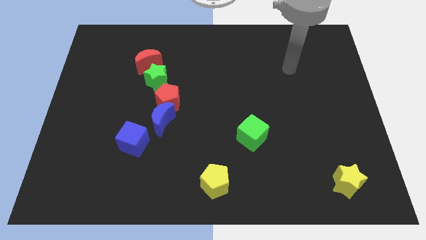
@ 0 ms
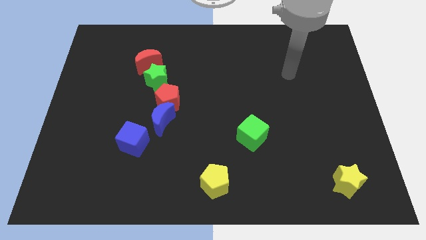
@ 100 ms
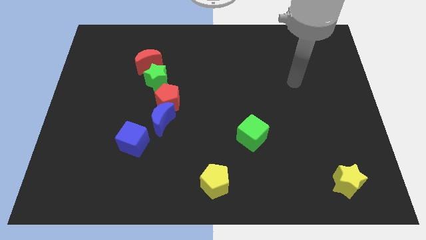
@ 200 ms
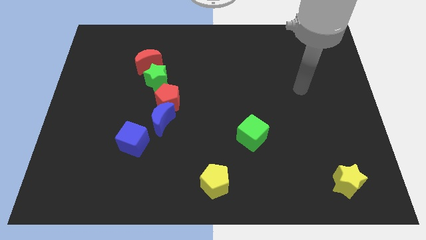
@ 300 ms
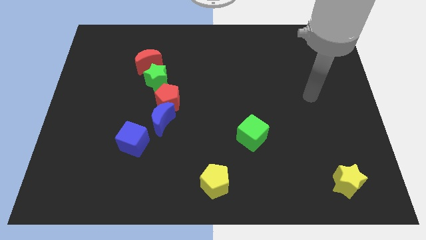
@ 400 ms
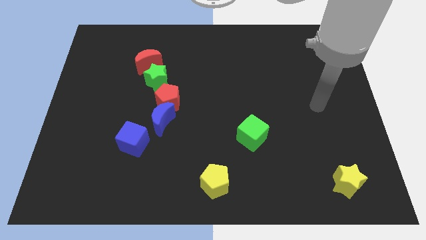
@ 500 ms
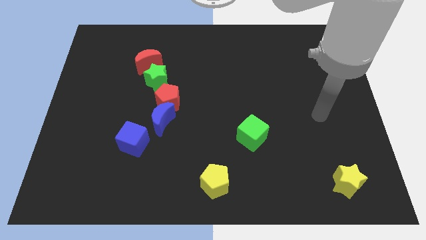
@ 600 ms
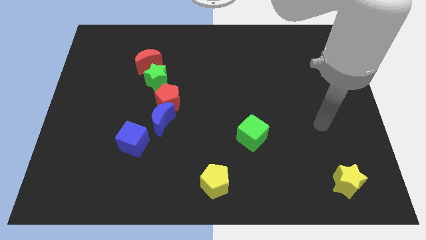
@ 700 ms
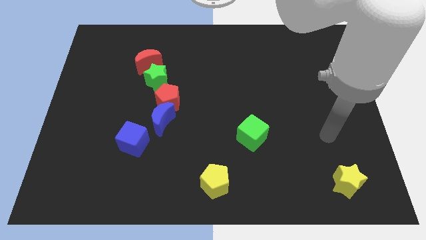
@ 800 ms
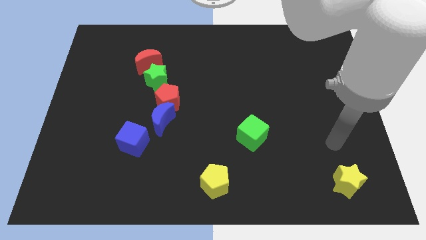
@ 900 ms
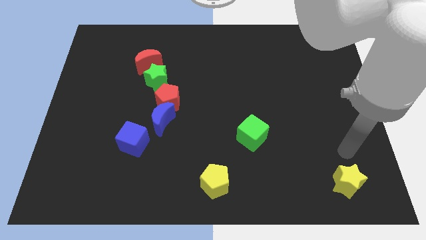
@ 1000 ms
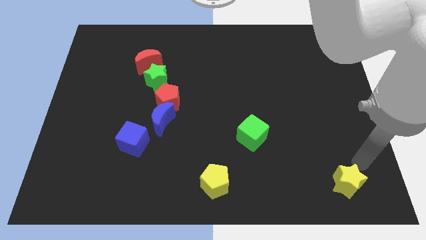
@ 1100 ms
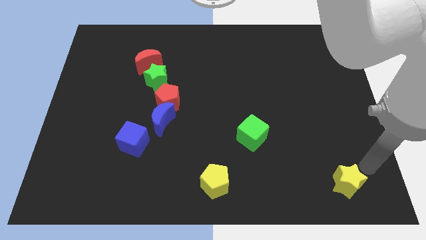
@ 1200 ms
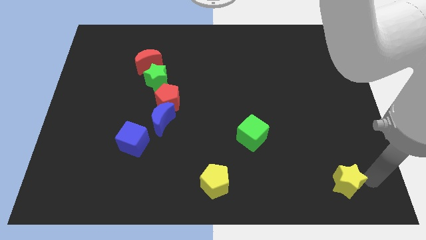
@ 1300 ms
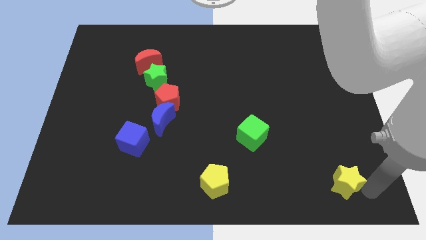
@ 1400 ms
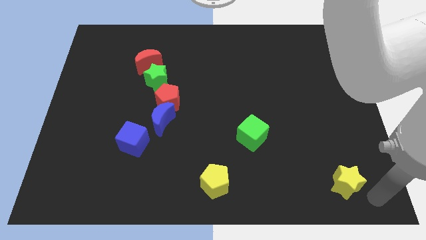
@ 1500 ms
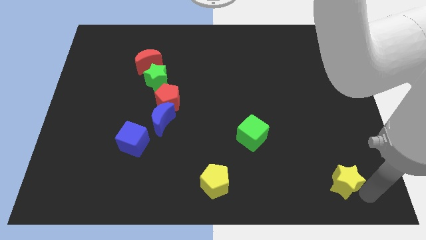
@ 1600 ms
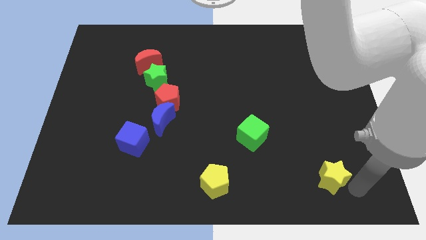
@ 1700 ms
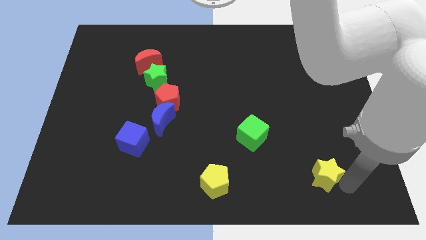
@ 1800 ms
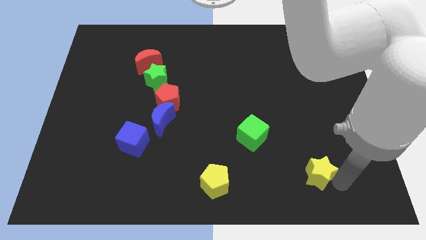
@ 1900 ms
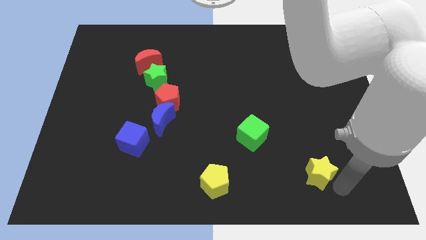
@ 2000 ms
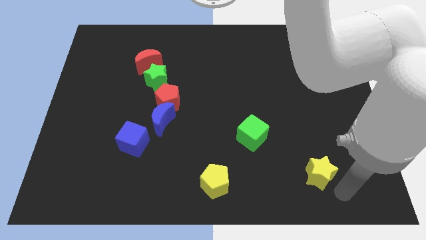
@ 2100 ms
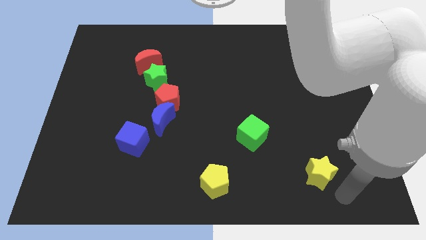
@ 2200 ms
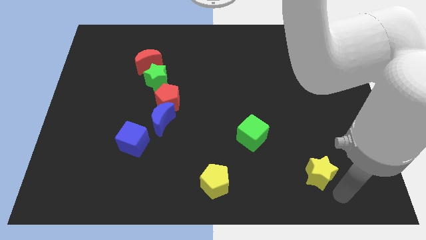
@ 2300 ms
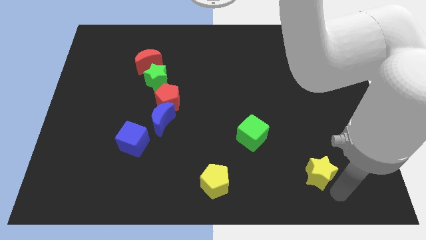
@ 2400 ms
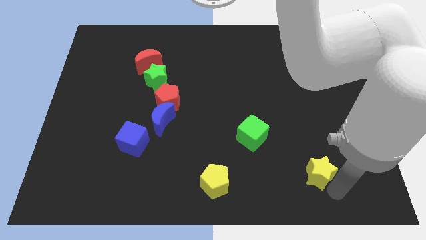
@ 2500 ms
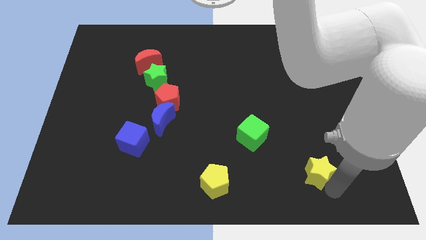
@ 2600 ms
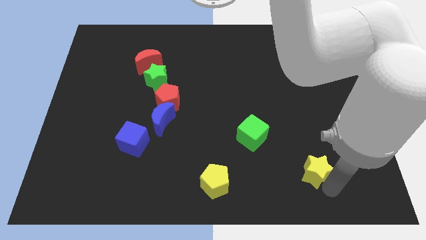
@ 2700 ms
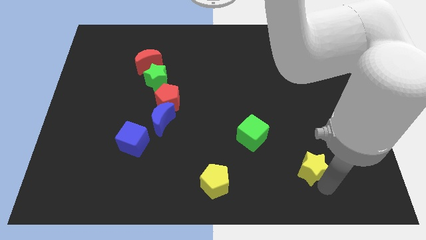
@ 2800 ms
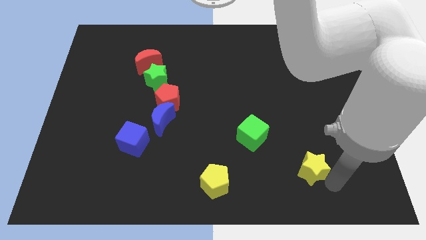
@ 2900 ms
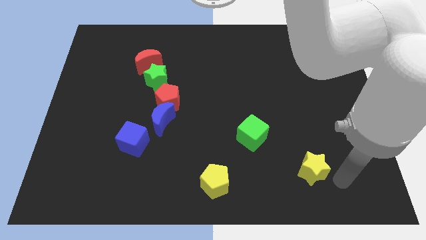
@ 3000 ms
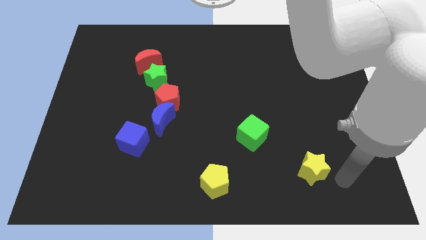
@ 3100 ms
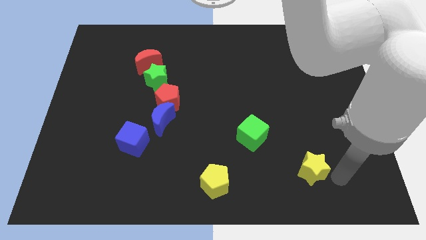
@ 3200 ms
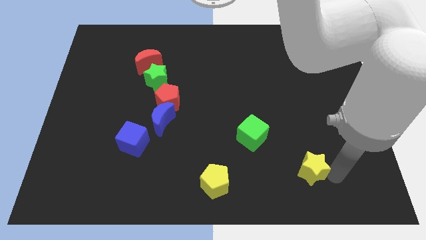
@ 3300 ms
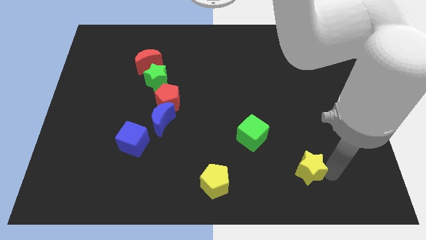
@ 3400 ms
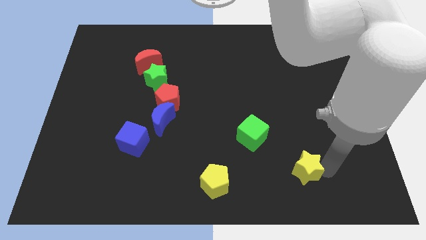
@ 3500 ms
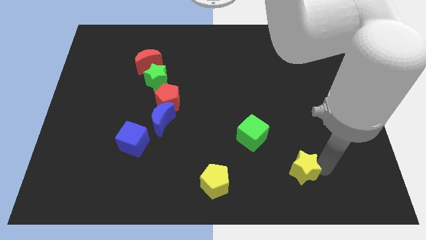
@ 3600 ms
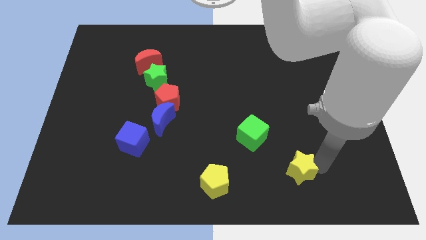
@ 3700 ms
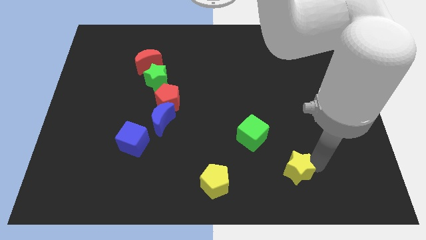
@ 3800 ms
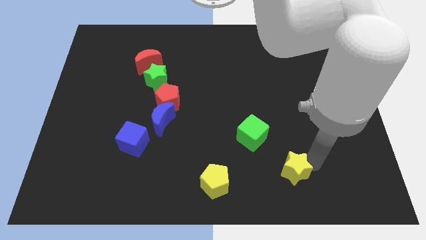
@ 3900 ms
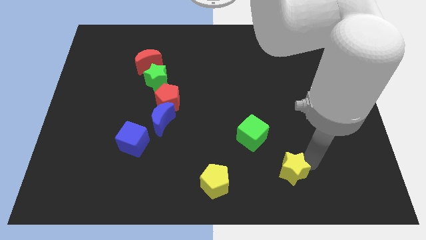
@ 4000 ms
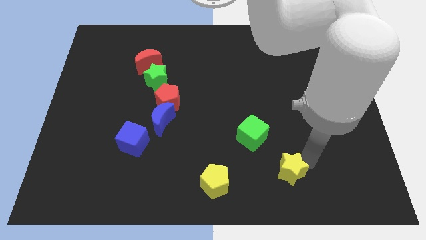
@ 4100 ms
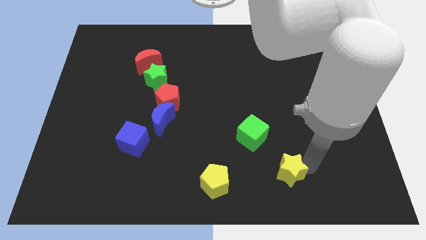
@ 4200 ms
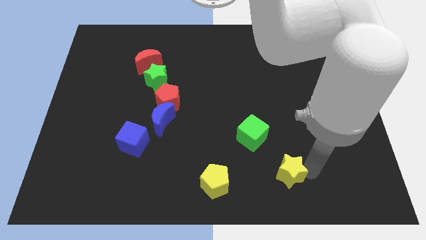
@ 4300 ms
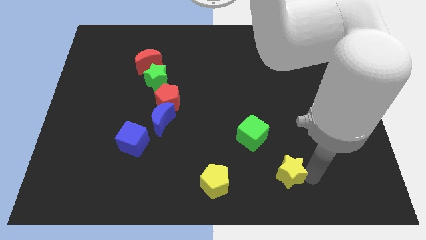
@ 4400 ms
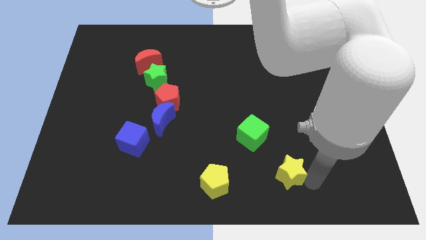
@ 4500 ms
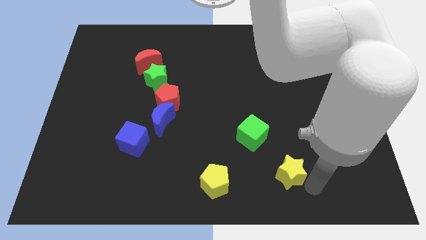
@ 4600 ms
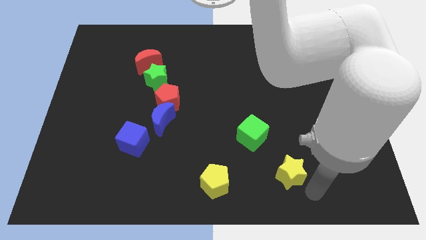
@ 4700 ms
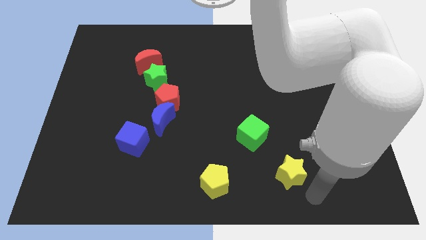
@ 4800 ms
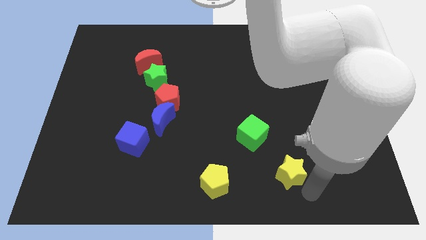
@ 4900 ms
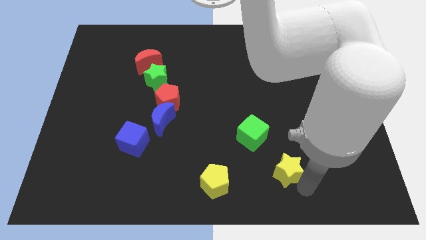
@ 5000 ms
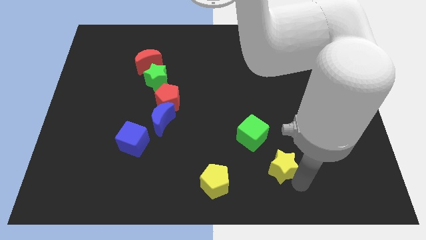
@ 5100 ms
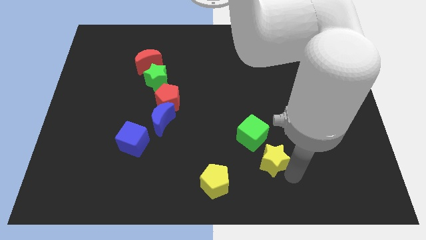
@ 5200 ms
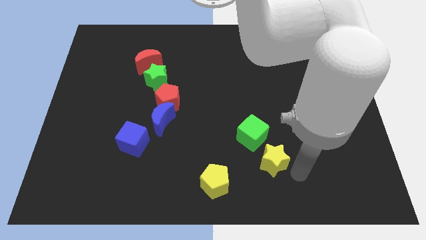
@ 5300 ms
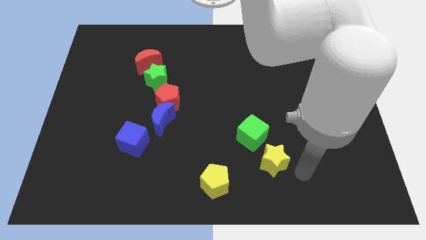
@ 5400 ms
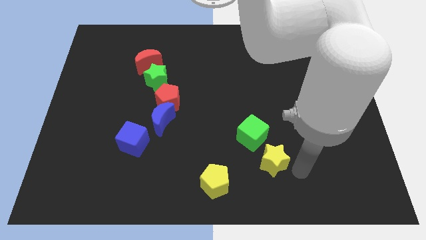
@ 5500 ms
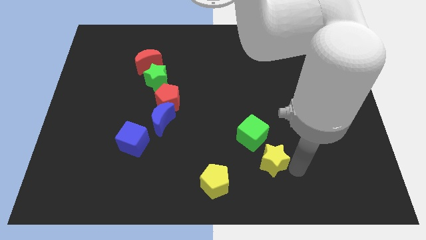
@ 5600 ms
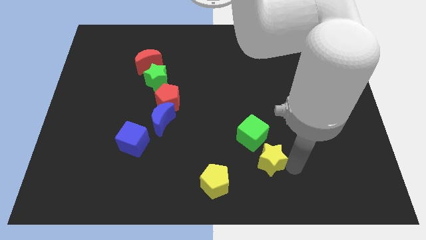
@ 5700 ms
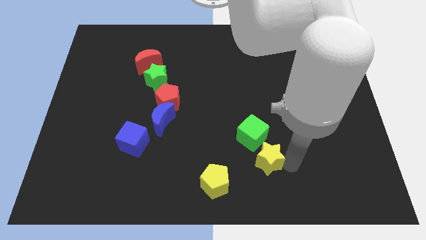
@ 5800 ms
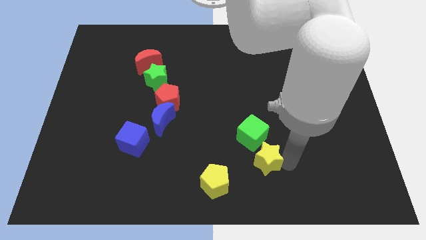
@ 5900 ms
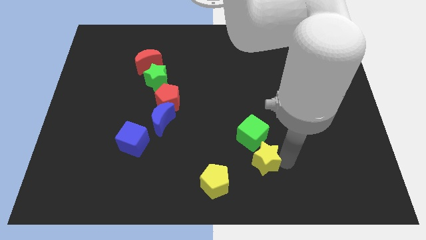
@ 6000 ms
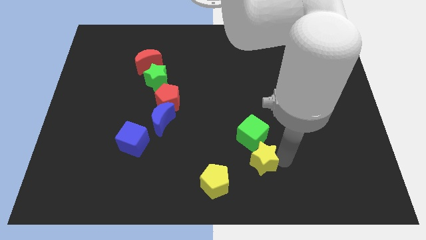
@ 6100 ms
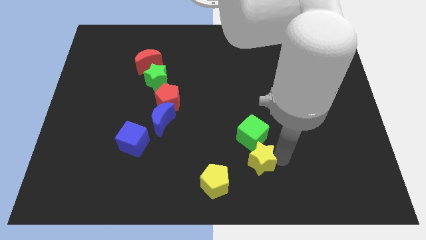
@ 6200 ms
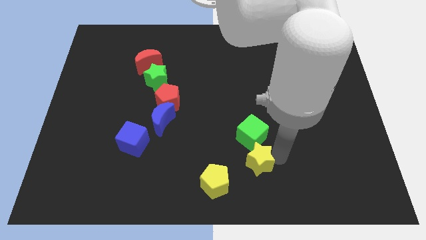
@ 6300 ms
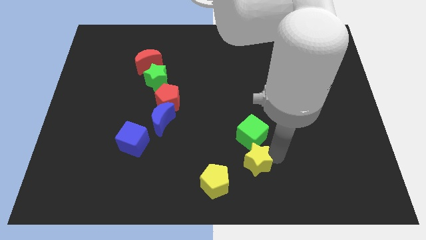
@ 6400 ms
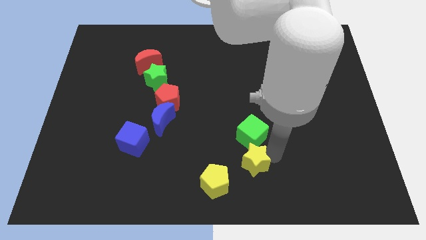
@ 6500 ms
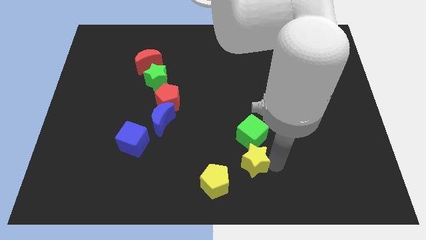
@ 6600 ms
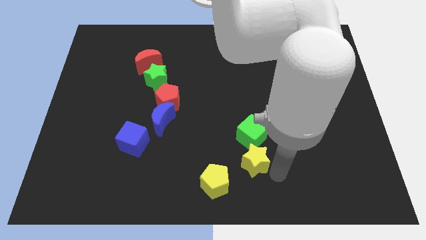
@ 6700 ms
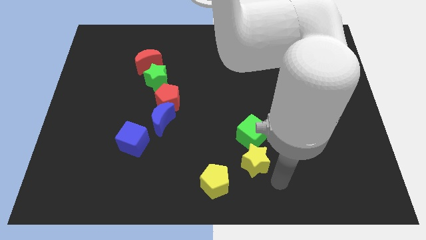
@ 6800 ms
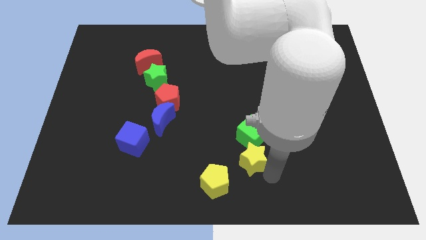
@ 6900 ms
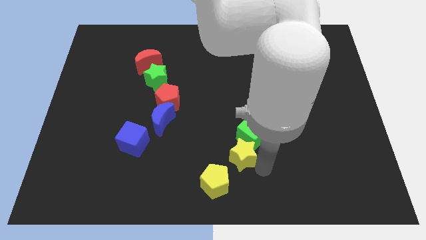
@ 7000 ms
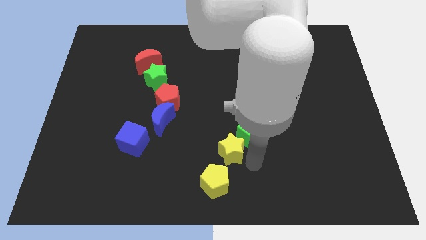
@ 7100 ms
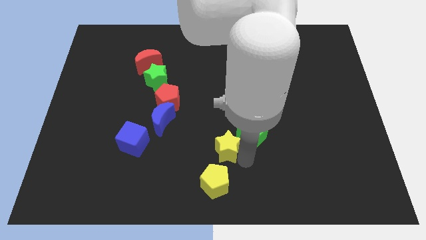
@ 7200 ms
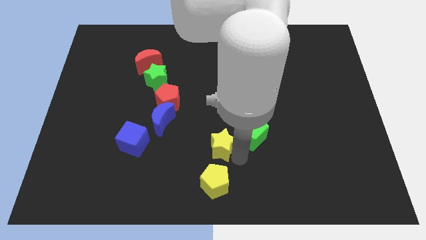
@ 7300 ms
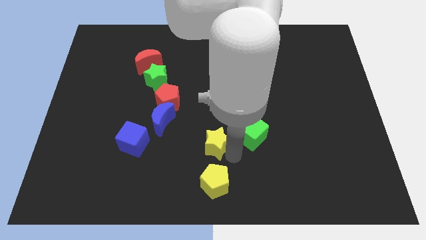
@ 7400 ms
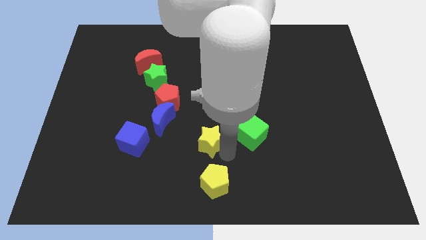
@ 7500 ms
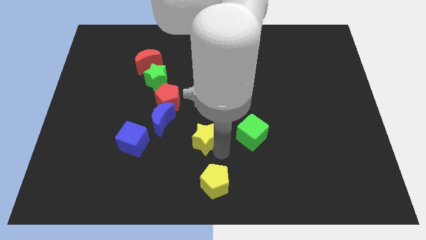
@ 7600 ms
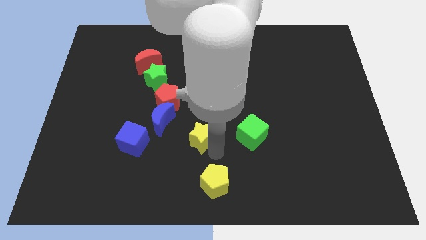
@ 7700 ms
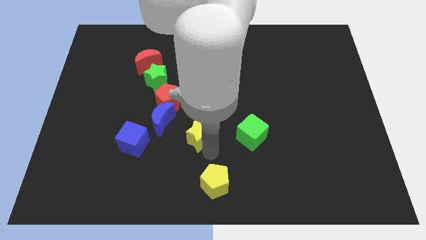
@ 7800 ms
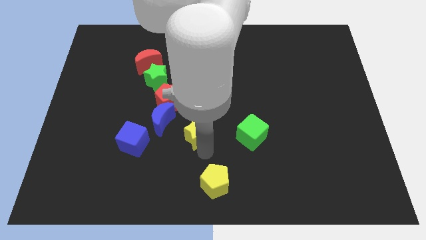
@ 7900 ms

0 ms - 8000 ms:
push the yellow star to the bottom right of the red pentagon
